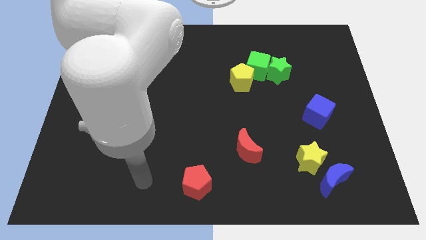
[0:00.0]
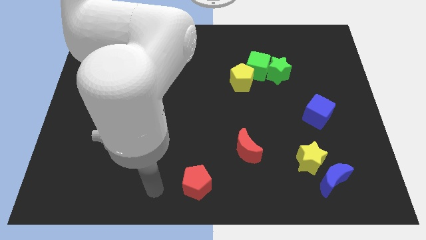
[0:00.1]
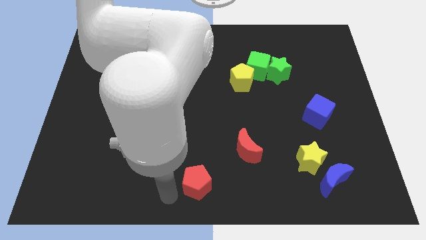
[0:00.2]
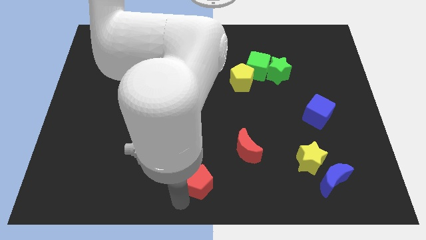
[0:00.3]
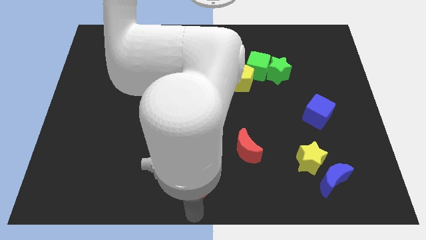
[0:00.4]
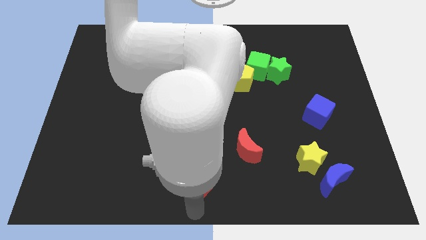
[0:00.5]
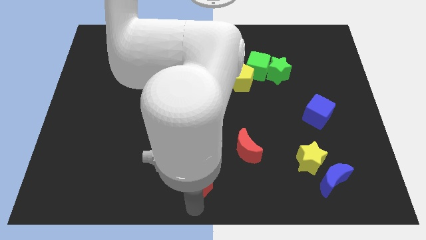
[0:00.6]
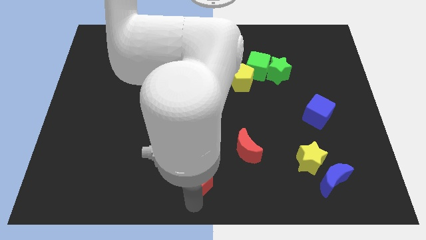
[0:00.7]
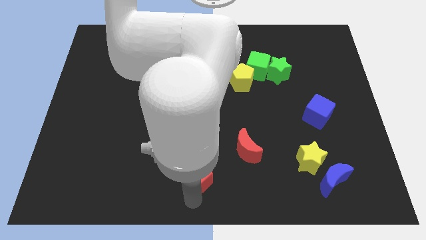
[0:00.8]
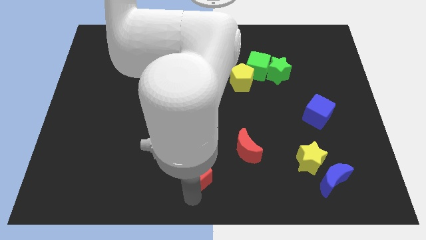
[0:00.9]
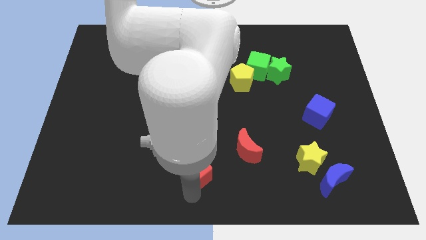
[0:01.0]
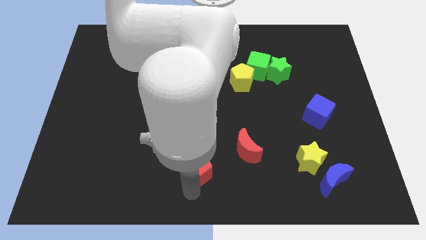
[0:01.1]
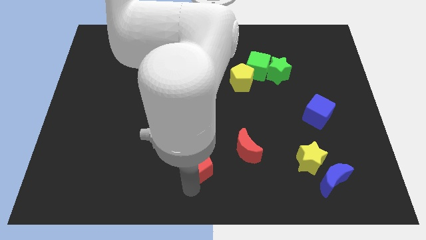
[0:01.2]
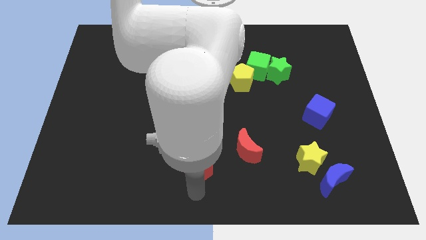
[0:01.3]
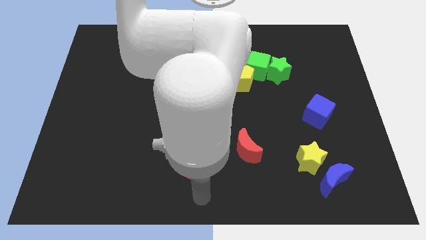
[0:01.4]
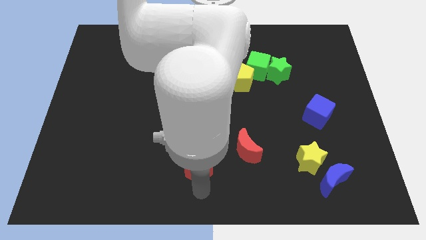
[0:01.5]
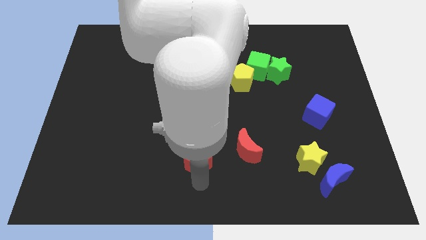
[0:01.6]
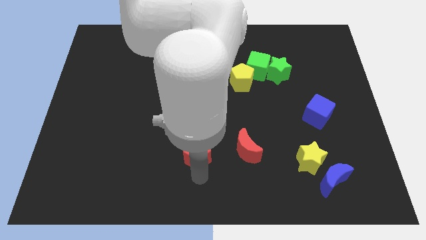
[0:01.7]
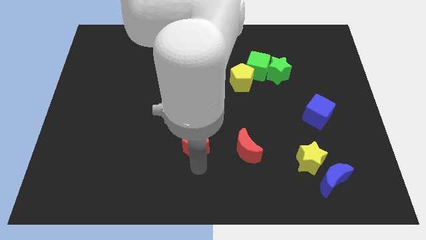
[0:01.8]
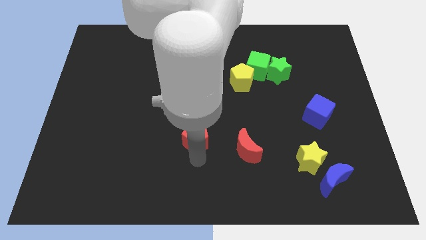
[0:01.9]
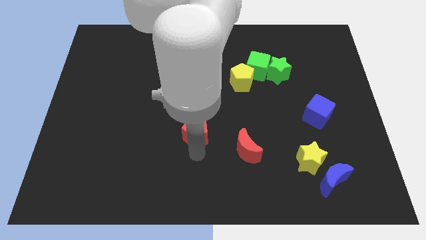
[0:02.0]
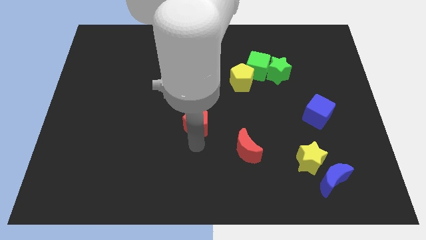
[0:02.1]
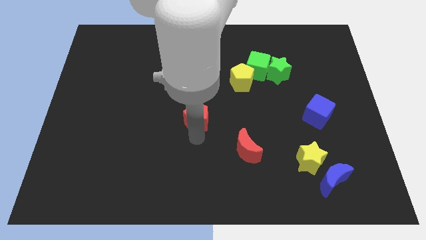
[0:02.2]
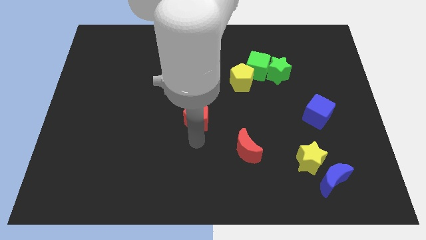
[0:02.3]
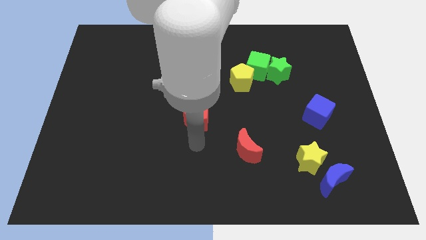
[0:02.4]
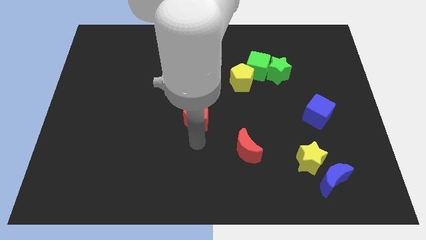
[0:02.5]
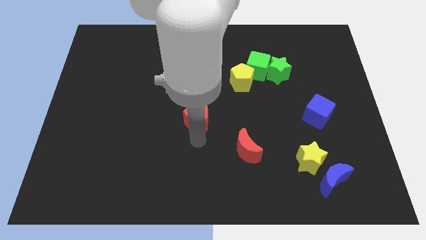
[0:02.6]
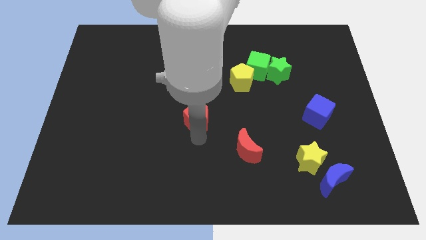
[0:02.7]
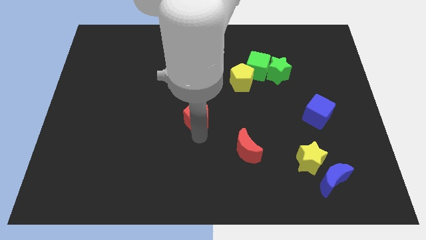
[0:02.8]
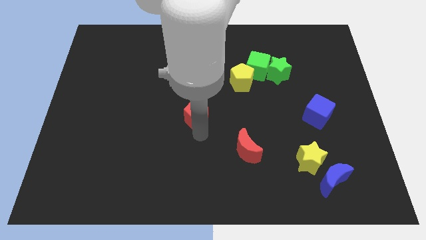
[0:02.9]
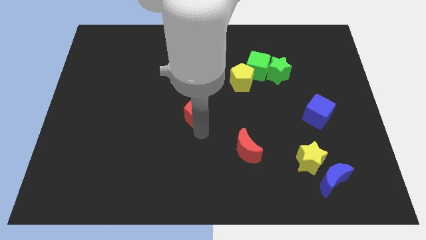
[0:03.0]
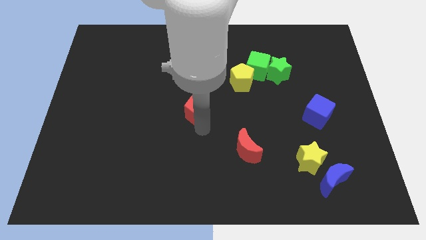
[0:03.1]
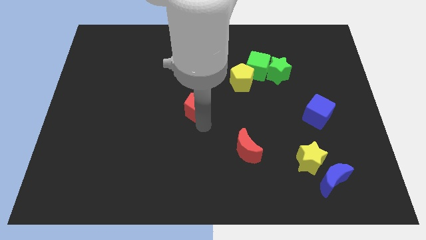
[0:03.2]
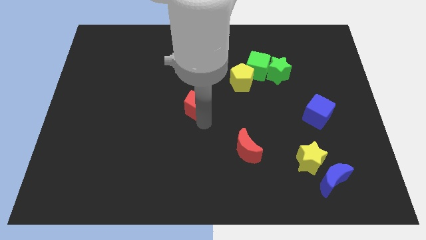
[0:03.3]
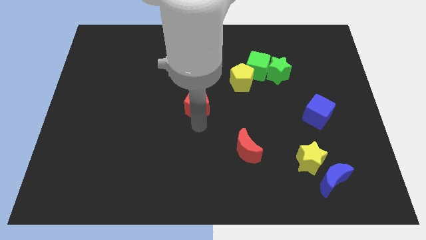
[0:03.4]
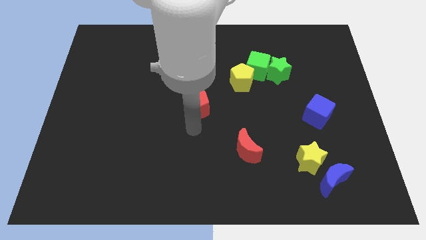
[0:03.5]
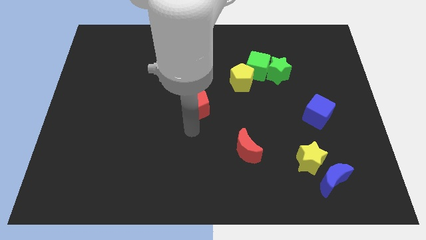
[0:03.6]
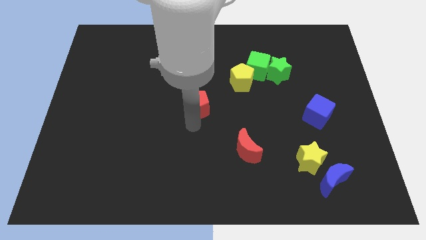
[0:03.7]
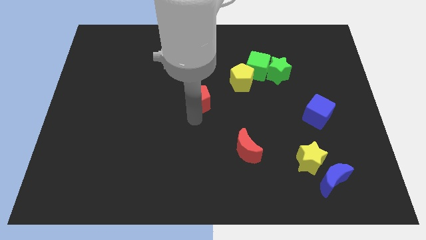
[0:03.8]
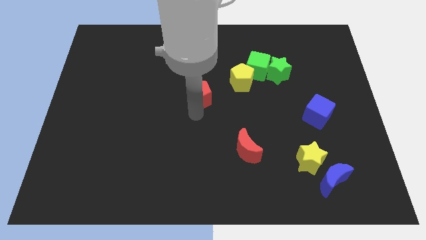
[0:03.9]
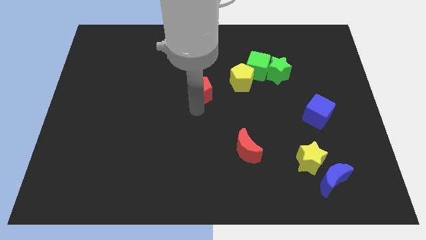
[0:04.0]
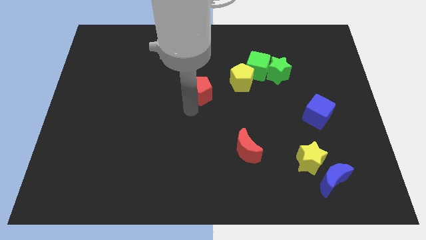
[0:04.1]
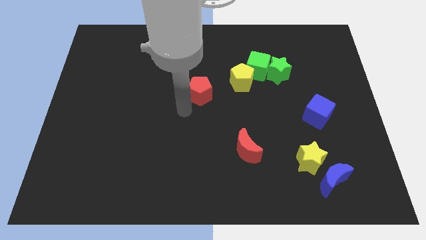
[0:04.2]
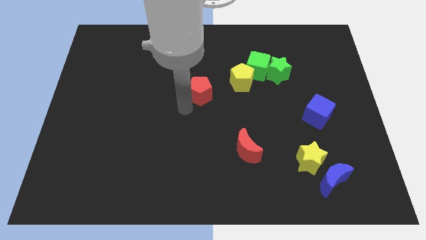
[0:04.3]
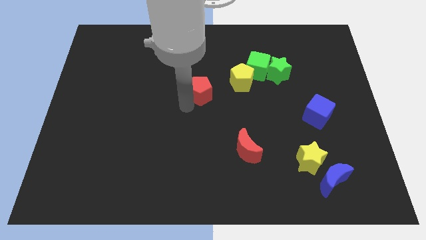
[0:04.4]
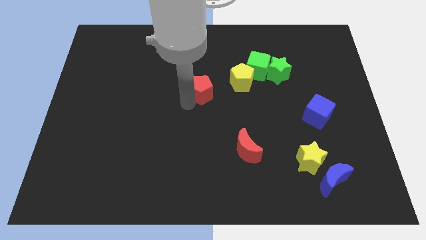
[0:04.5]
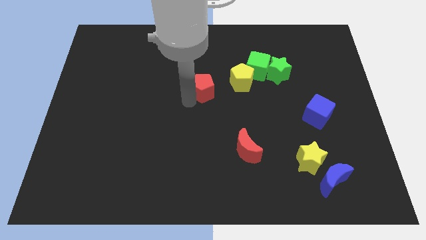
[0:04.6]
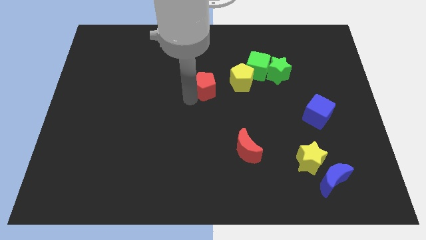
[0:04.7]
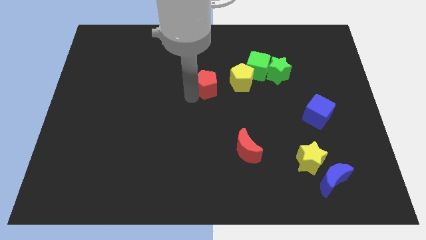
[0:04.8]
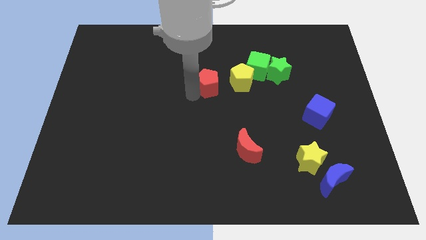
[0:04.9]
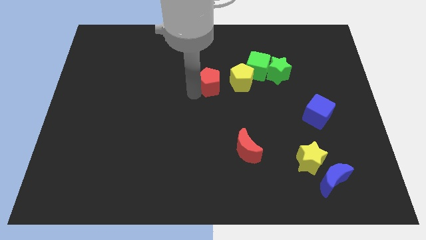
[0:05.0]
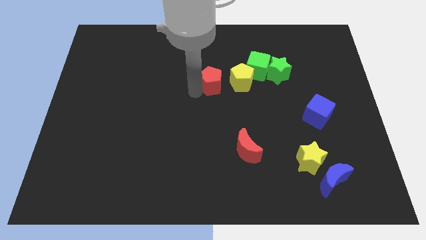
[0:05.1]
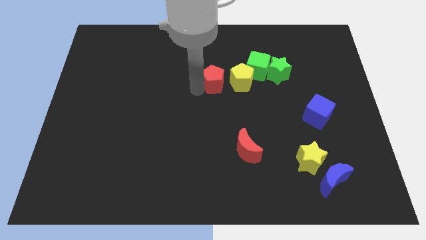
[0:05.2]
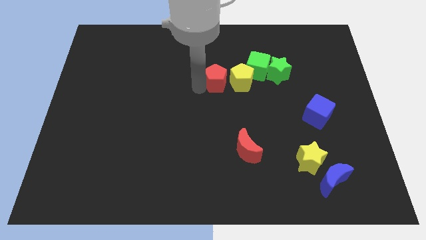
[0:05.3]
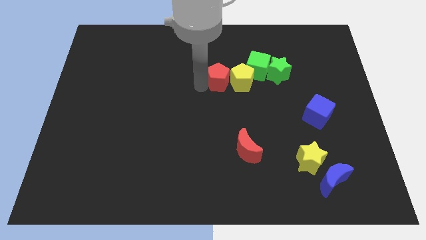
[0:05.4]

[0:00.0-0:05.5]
move the red pentagon to the left of the green star

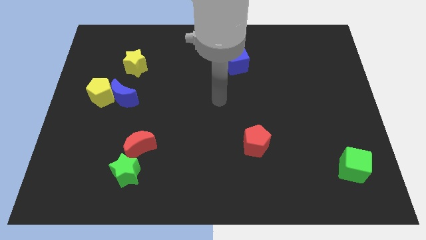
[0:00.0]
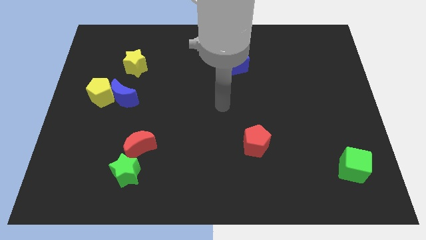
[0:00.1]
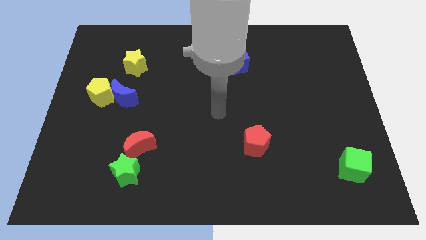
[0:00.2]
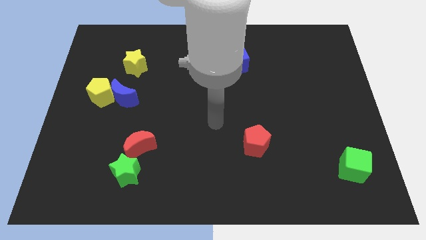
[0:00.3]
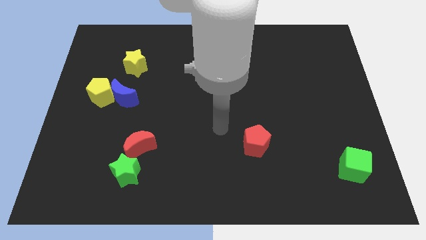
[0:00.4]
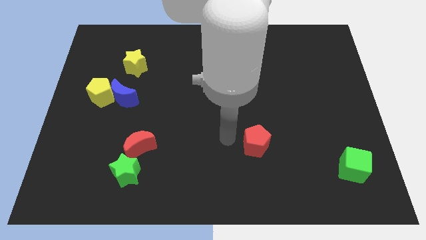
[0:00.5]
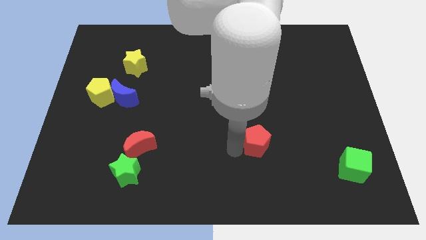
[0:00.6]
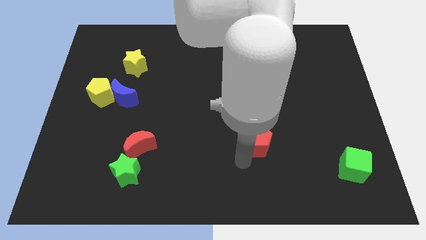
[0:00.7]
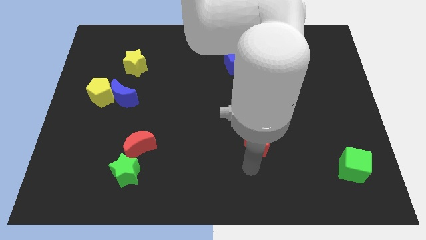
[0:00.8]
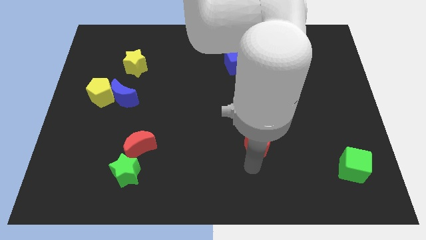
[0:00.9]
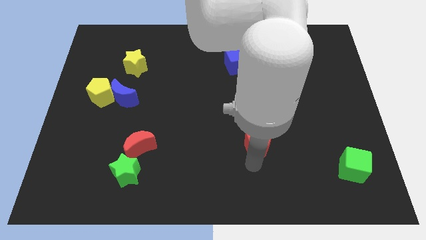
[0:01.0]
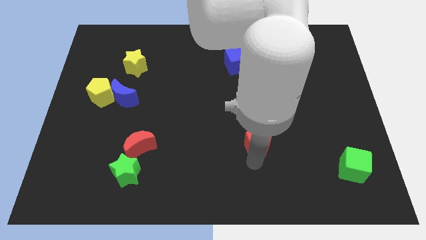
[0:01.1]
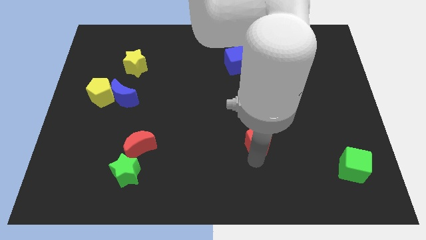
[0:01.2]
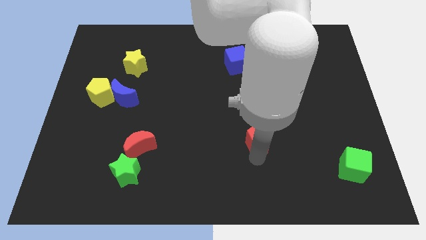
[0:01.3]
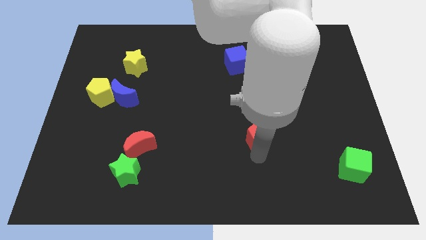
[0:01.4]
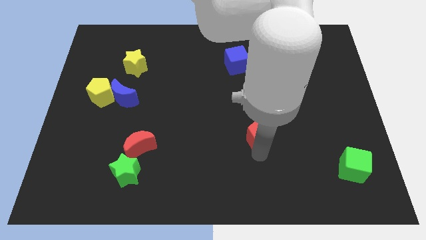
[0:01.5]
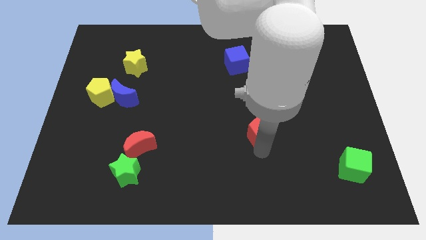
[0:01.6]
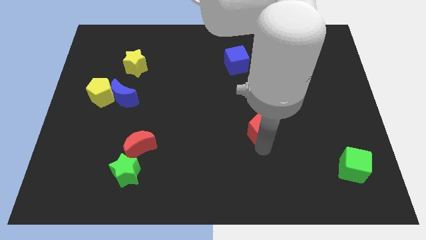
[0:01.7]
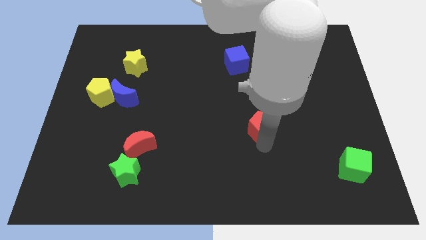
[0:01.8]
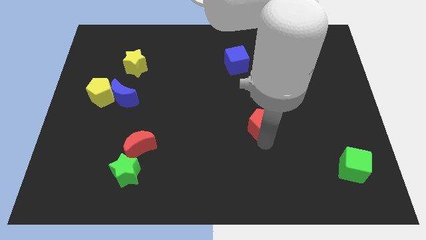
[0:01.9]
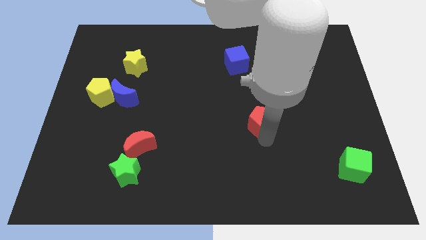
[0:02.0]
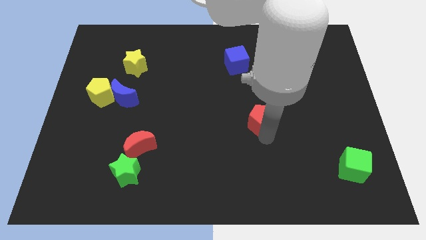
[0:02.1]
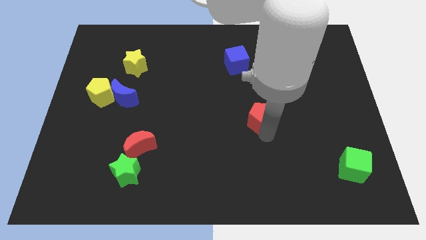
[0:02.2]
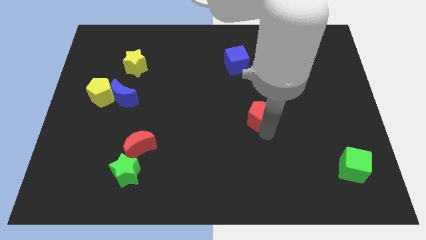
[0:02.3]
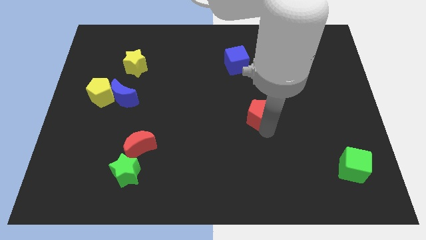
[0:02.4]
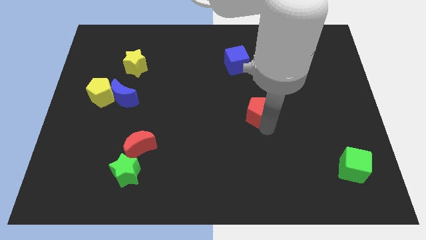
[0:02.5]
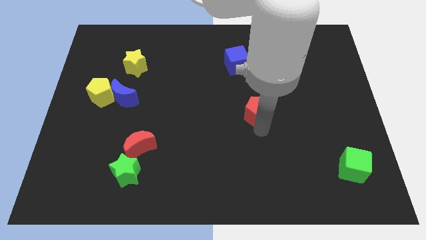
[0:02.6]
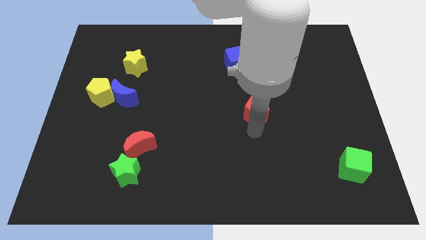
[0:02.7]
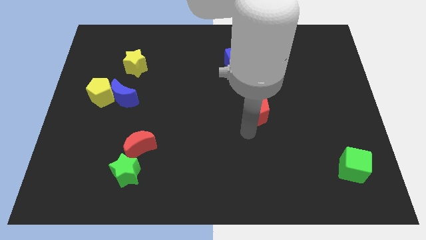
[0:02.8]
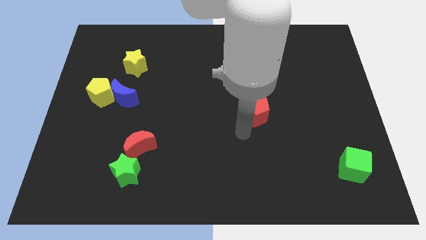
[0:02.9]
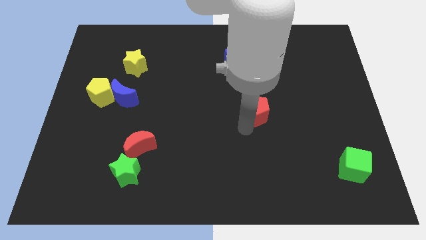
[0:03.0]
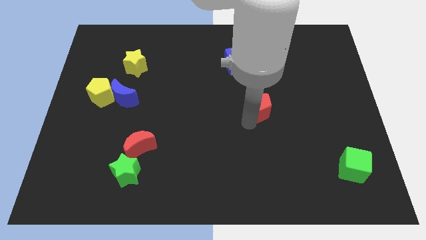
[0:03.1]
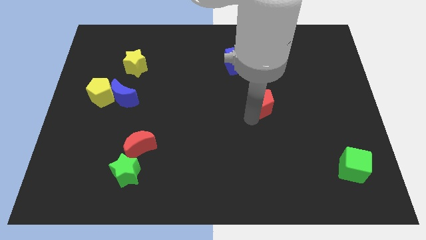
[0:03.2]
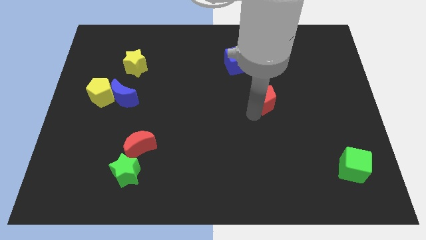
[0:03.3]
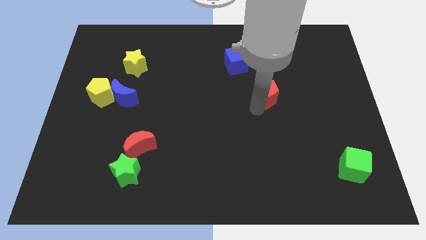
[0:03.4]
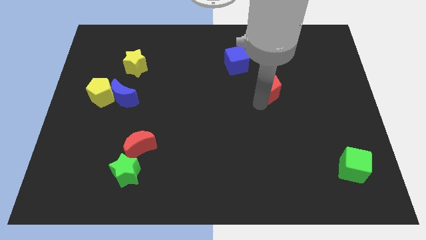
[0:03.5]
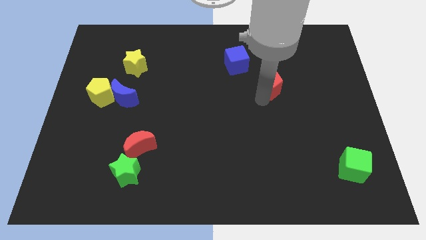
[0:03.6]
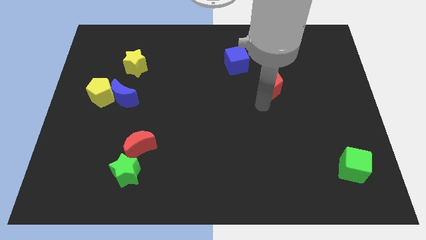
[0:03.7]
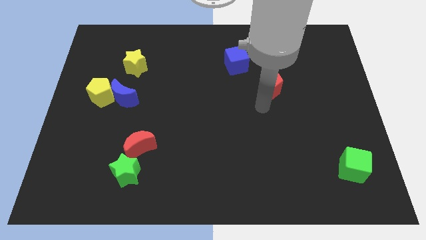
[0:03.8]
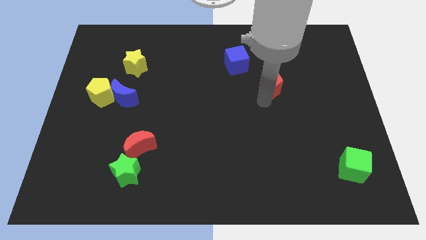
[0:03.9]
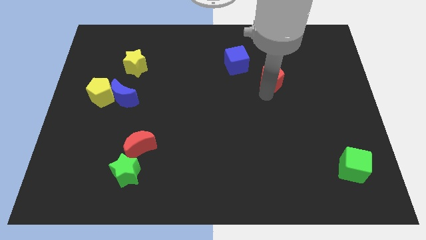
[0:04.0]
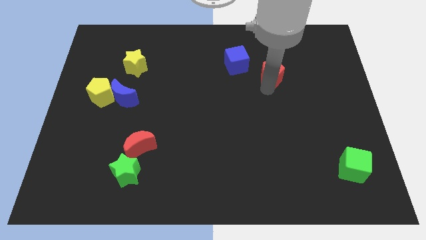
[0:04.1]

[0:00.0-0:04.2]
slide the red pentagon to the right of the blue cube
